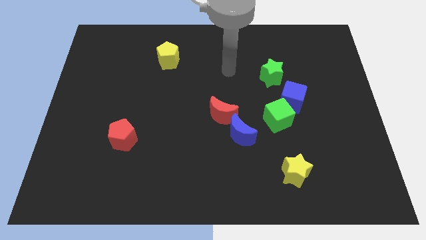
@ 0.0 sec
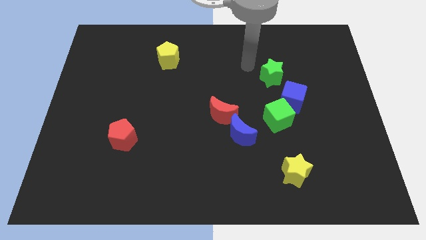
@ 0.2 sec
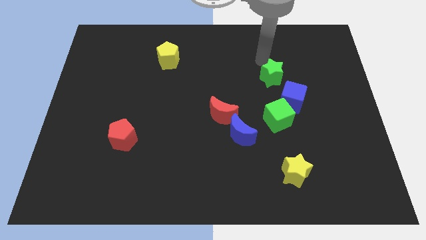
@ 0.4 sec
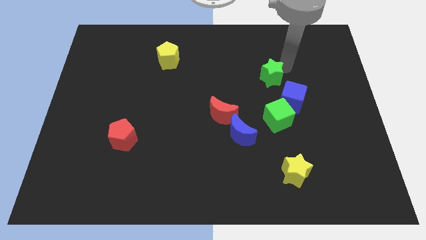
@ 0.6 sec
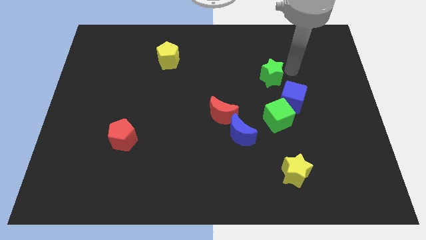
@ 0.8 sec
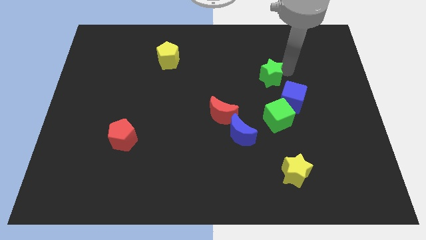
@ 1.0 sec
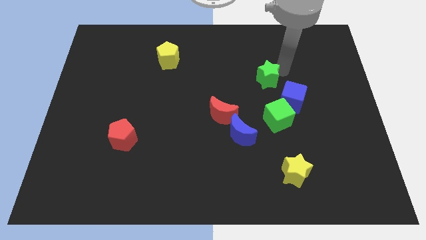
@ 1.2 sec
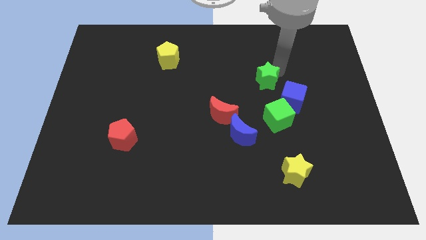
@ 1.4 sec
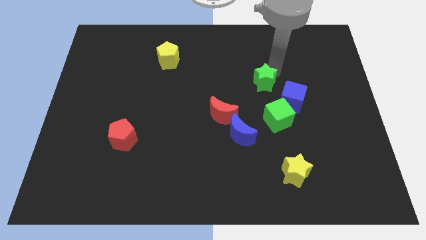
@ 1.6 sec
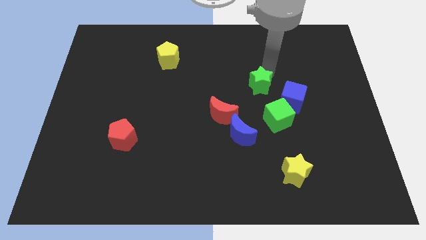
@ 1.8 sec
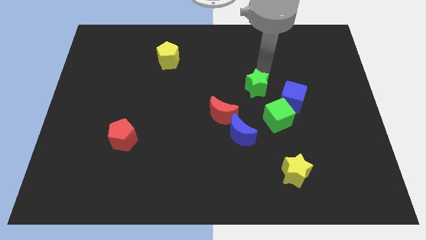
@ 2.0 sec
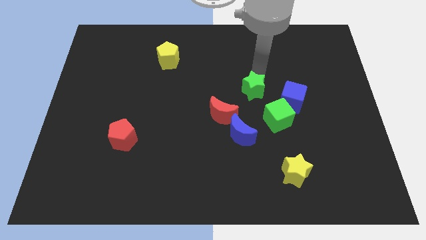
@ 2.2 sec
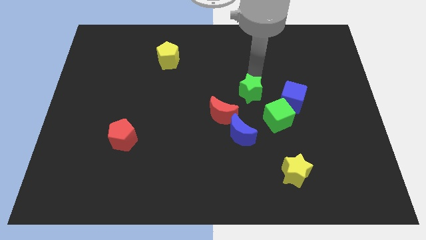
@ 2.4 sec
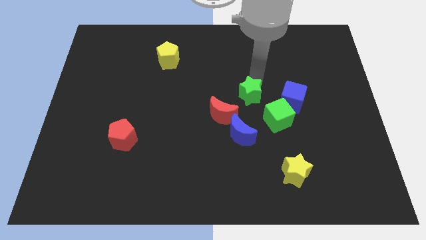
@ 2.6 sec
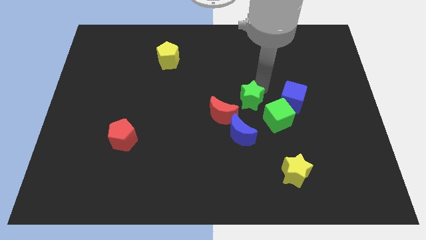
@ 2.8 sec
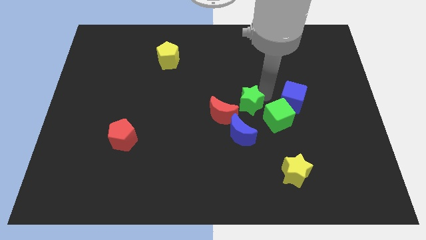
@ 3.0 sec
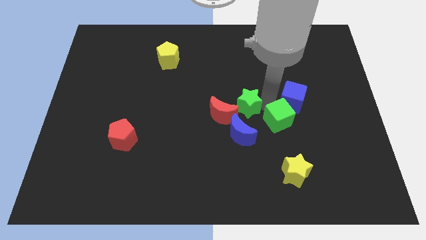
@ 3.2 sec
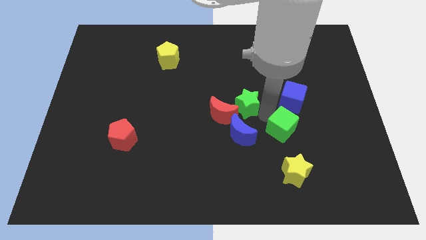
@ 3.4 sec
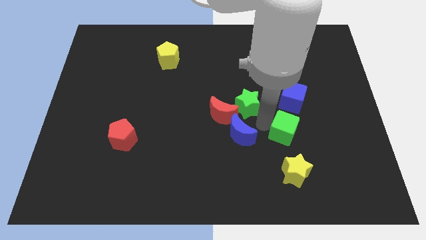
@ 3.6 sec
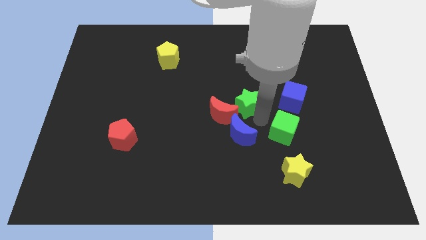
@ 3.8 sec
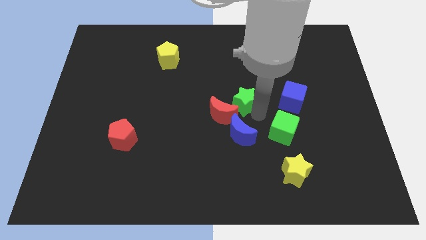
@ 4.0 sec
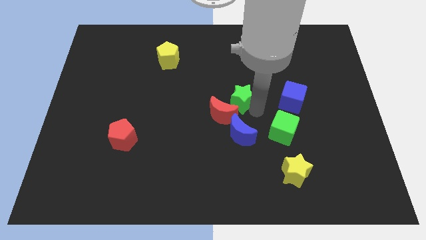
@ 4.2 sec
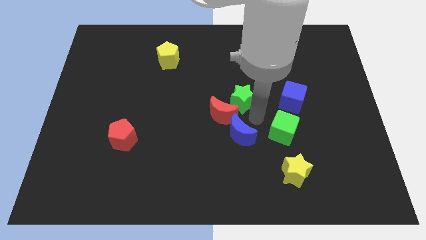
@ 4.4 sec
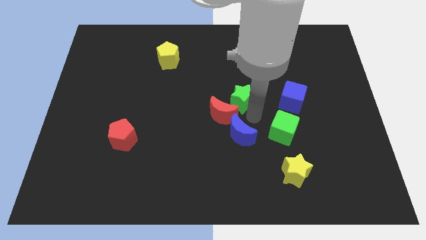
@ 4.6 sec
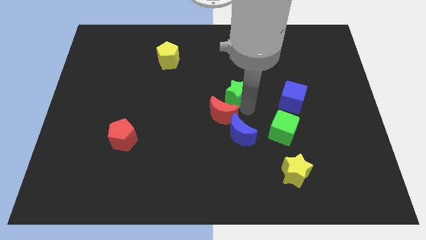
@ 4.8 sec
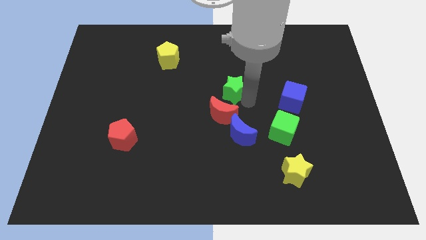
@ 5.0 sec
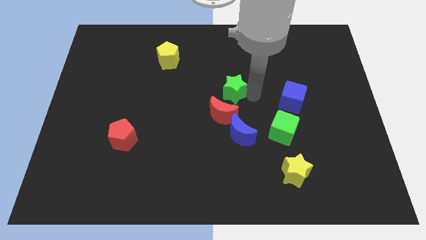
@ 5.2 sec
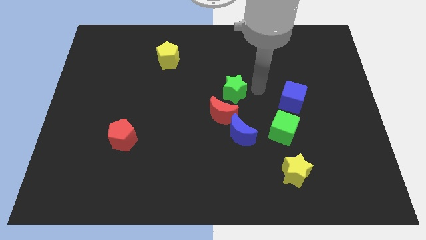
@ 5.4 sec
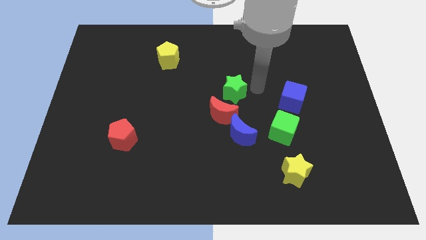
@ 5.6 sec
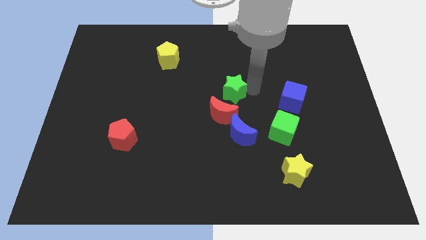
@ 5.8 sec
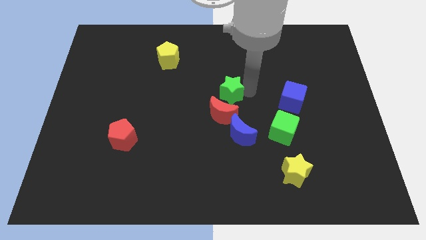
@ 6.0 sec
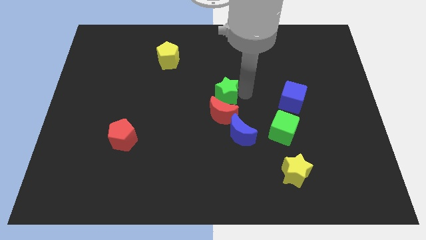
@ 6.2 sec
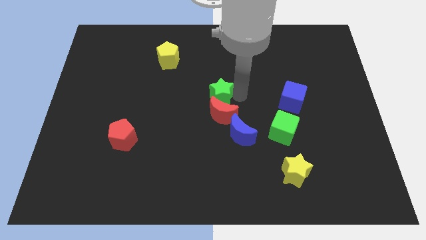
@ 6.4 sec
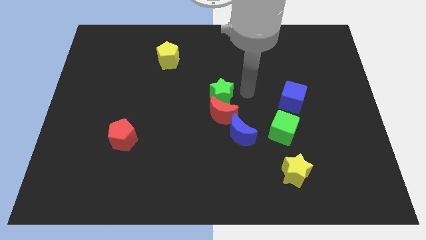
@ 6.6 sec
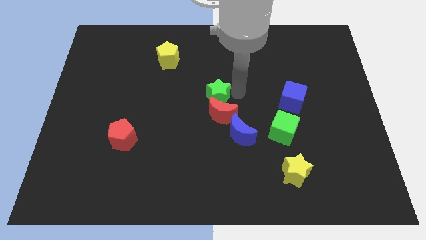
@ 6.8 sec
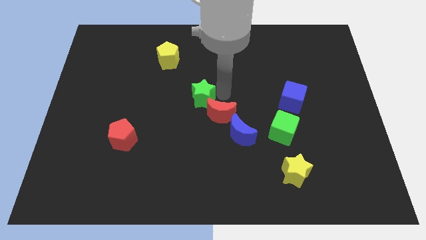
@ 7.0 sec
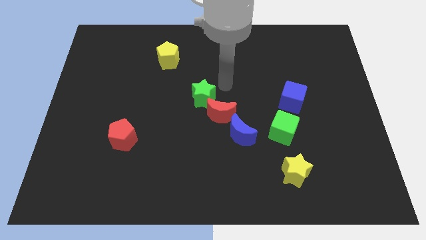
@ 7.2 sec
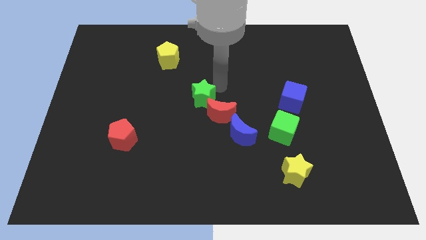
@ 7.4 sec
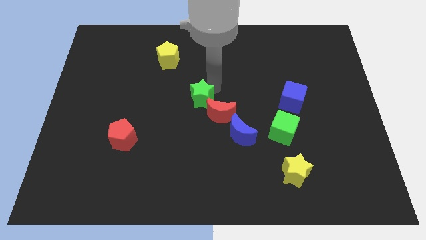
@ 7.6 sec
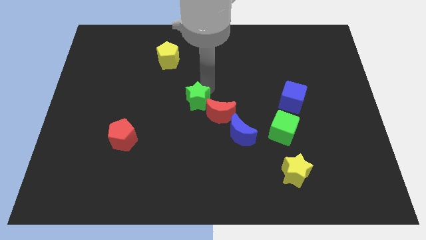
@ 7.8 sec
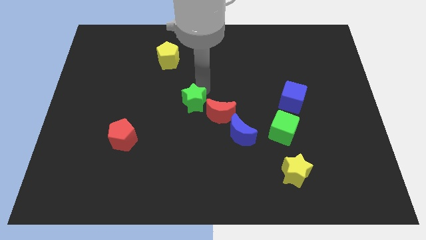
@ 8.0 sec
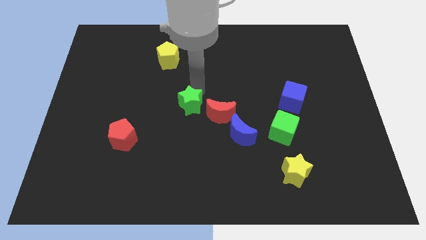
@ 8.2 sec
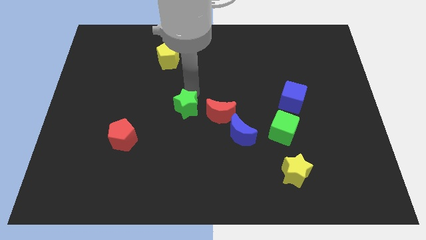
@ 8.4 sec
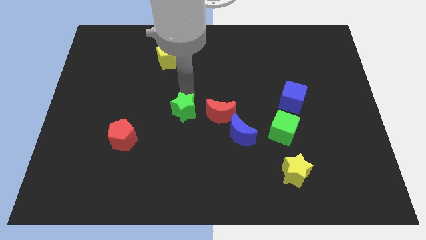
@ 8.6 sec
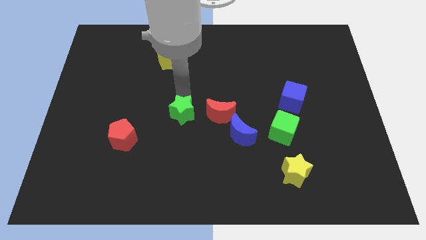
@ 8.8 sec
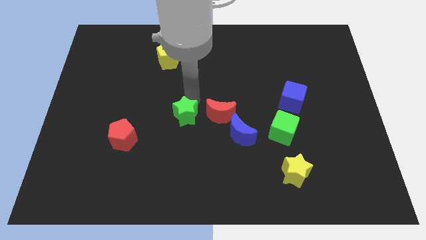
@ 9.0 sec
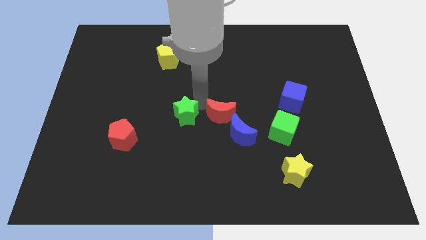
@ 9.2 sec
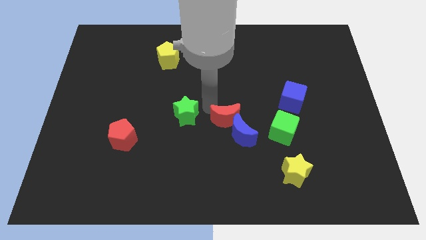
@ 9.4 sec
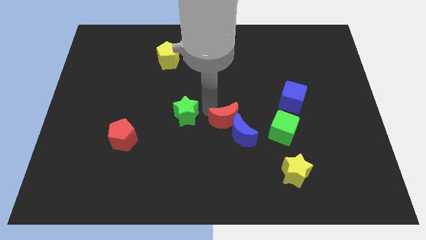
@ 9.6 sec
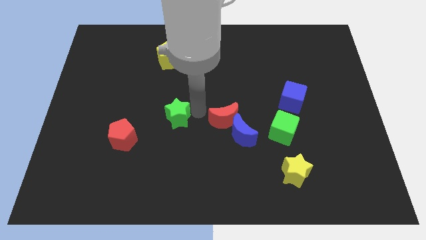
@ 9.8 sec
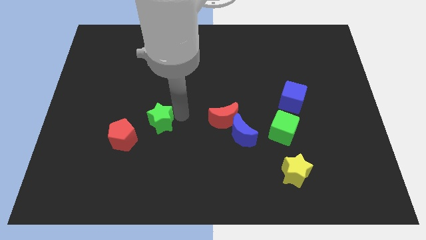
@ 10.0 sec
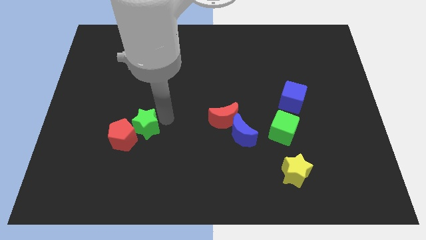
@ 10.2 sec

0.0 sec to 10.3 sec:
push the green star next to the red pentagon

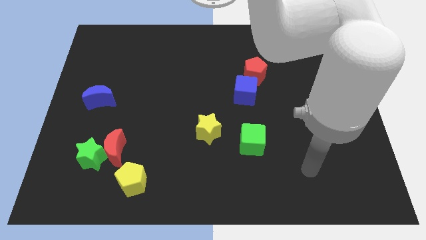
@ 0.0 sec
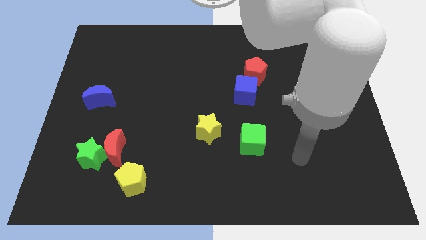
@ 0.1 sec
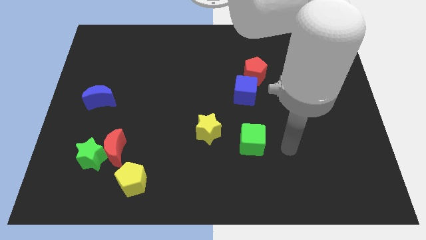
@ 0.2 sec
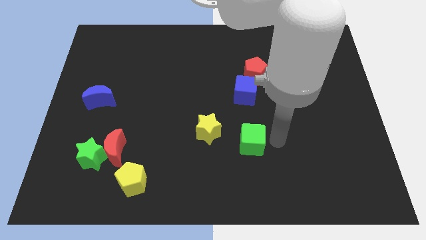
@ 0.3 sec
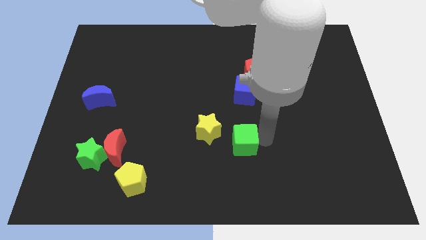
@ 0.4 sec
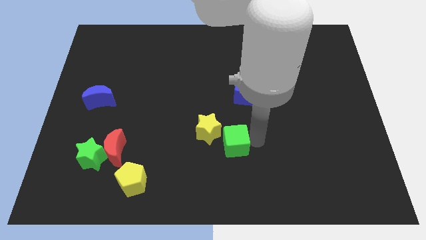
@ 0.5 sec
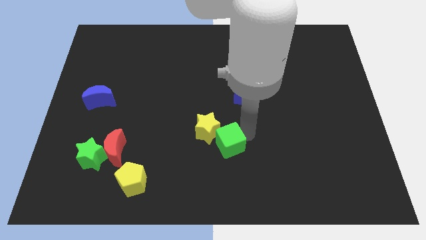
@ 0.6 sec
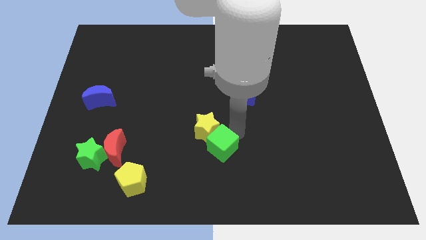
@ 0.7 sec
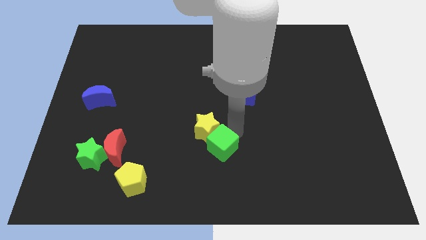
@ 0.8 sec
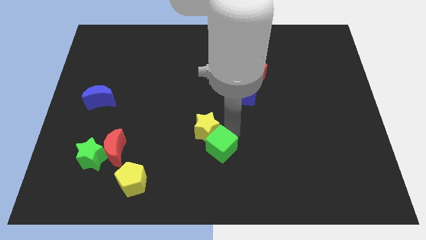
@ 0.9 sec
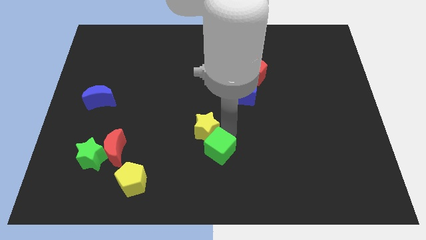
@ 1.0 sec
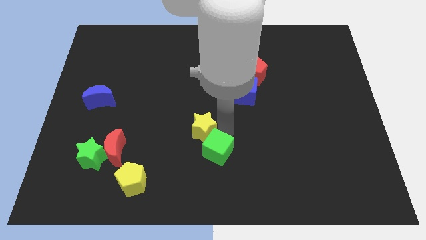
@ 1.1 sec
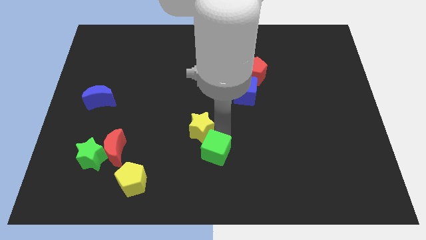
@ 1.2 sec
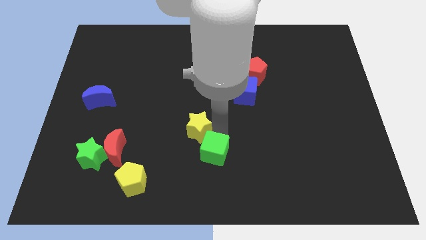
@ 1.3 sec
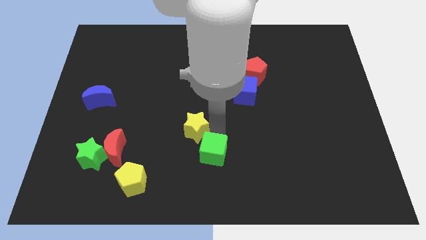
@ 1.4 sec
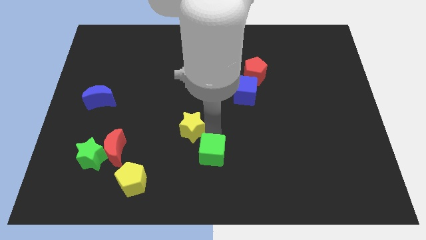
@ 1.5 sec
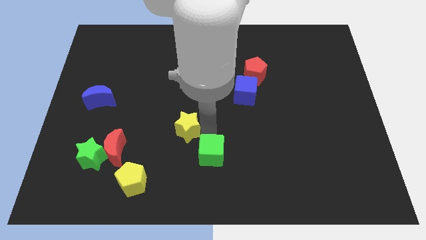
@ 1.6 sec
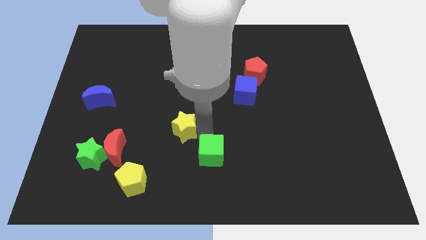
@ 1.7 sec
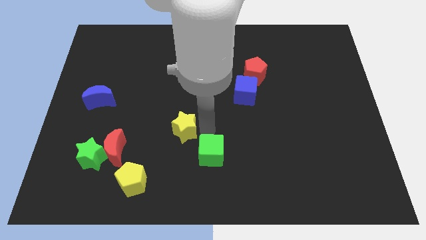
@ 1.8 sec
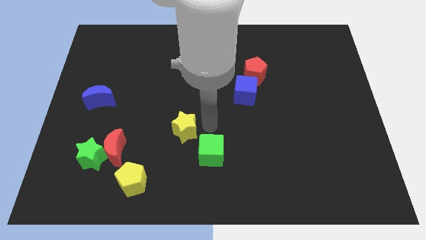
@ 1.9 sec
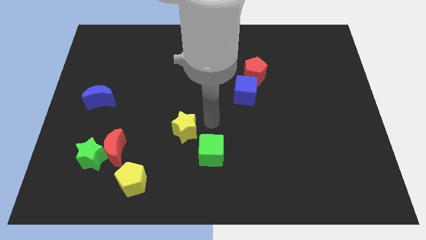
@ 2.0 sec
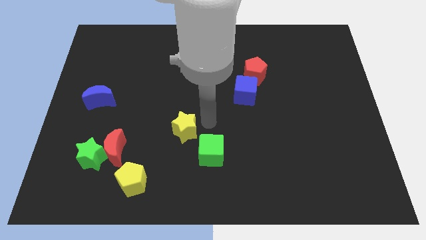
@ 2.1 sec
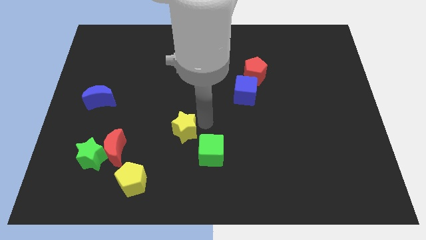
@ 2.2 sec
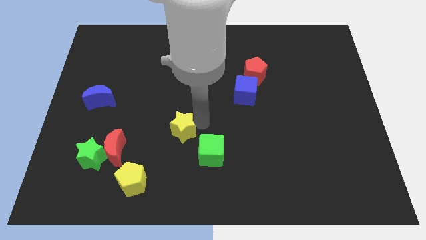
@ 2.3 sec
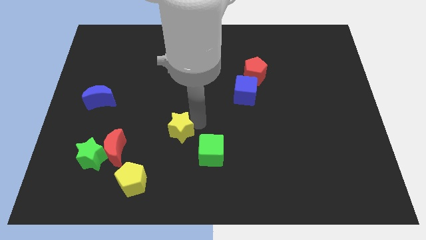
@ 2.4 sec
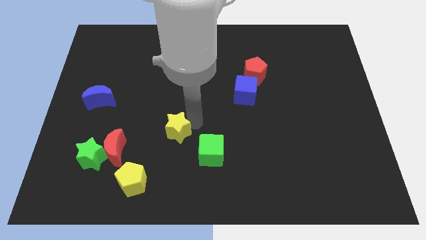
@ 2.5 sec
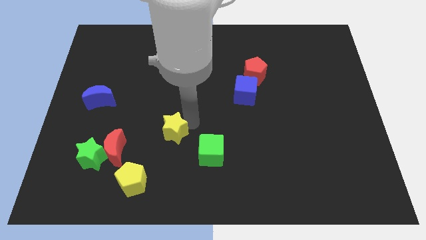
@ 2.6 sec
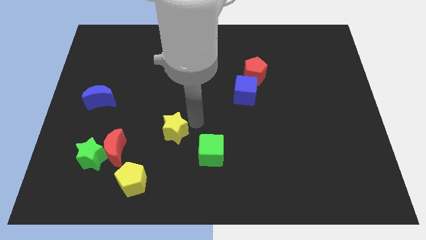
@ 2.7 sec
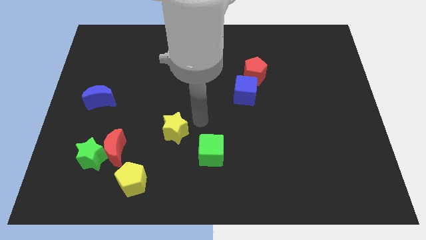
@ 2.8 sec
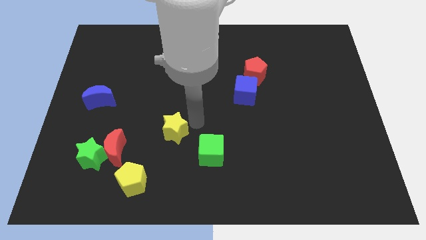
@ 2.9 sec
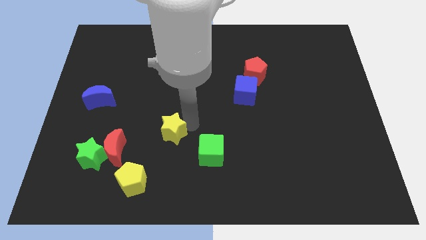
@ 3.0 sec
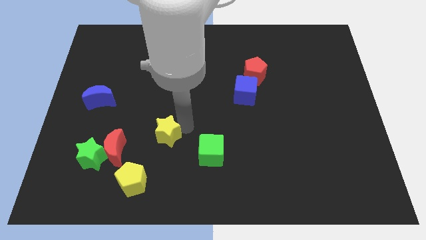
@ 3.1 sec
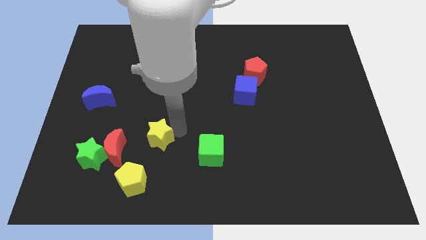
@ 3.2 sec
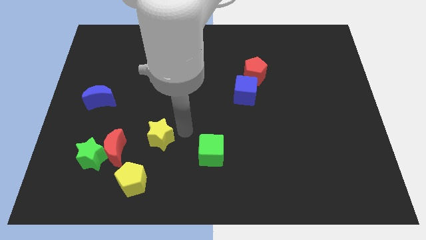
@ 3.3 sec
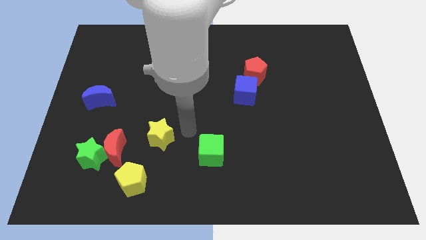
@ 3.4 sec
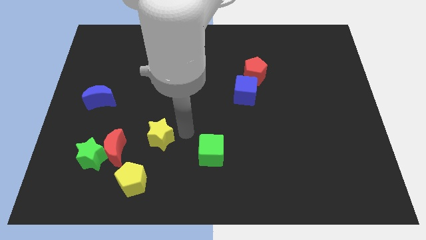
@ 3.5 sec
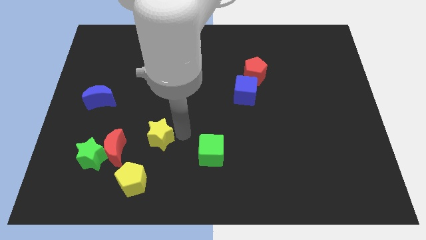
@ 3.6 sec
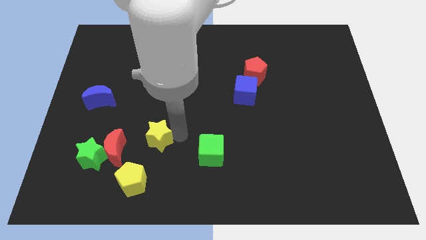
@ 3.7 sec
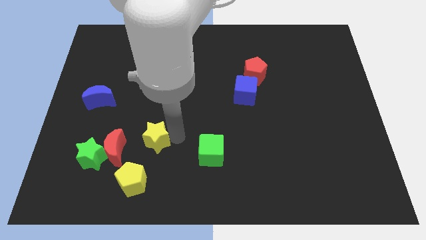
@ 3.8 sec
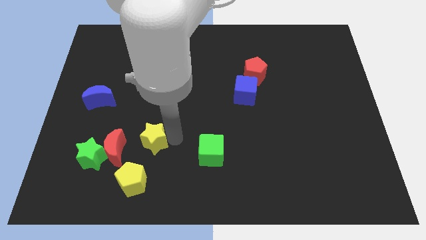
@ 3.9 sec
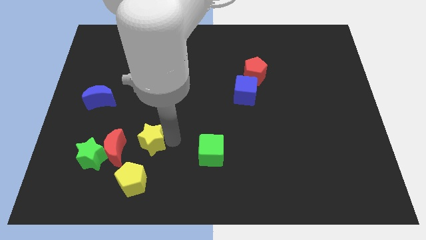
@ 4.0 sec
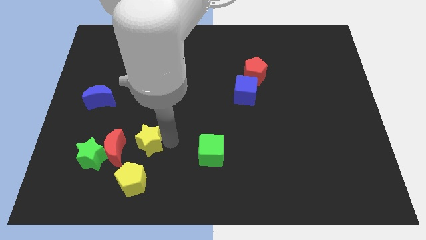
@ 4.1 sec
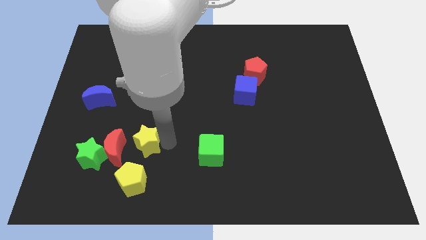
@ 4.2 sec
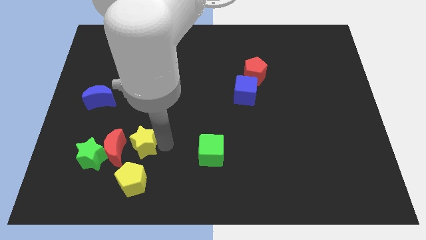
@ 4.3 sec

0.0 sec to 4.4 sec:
move the yellow star next to the red moon
